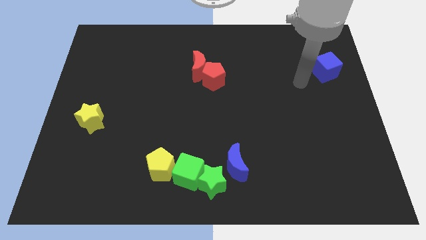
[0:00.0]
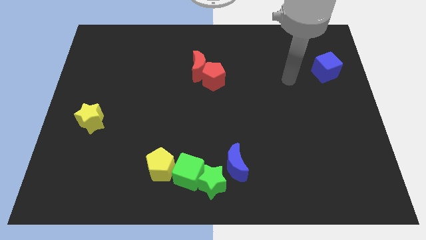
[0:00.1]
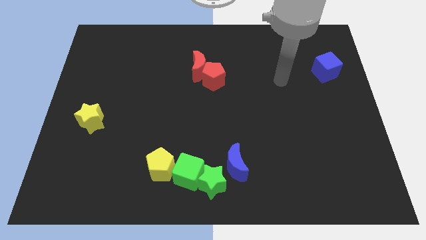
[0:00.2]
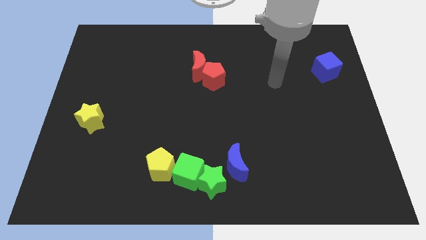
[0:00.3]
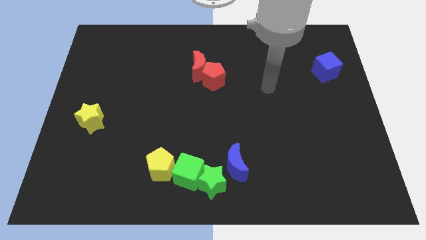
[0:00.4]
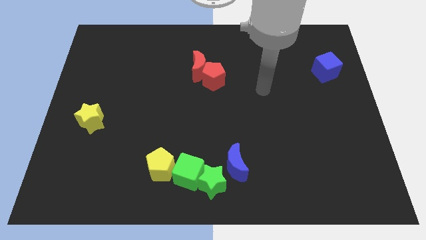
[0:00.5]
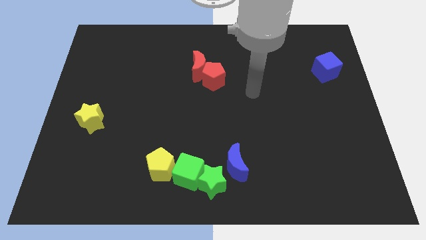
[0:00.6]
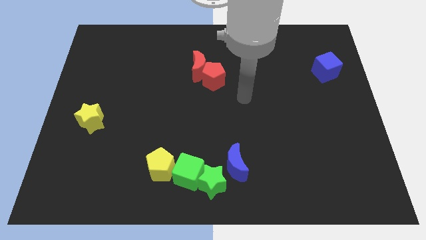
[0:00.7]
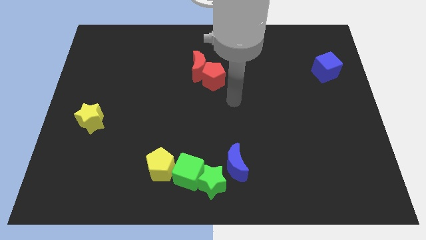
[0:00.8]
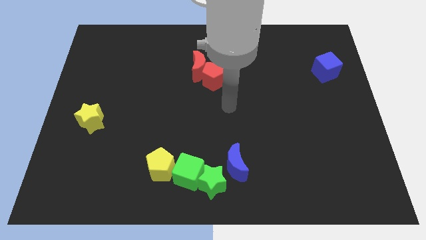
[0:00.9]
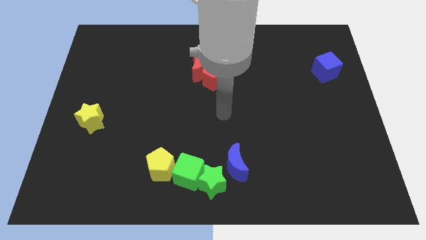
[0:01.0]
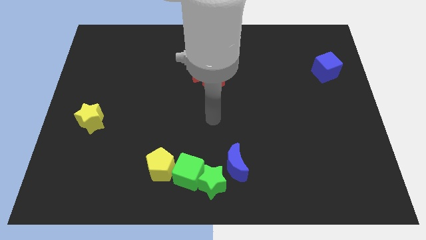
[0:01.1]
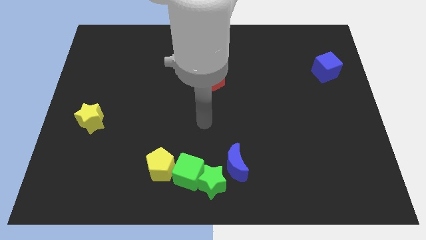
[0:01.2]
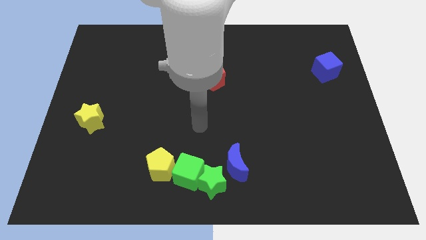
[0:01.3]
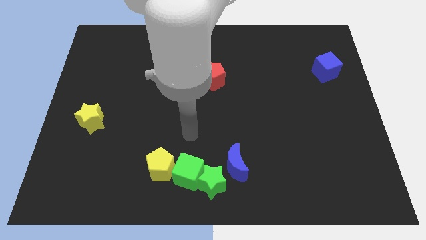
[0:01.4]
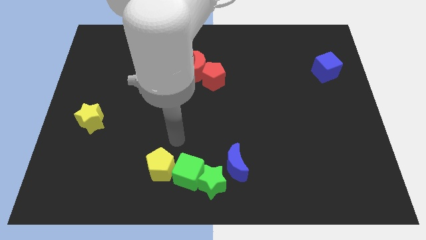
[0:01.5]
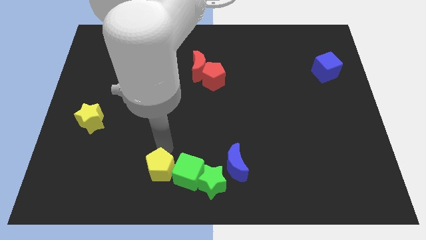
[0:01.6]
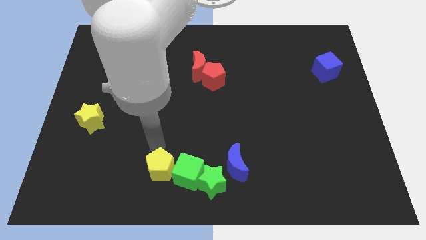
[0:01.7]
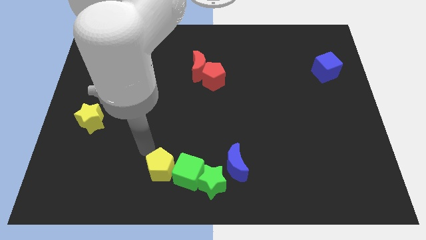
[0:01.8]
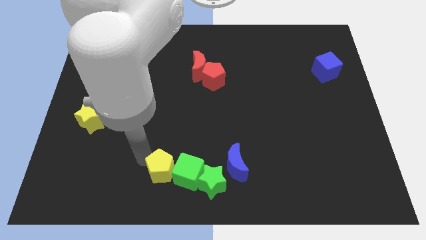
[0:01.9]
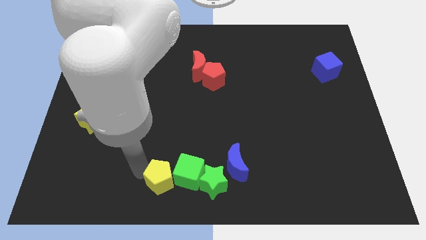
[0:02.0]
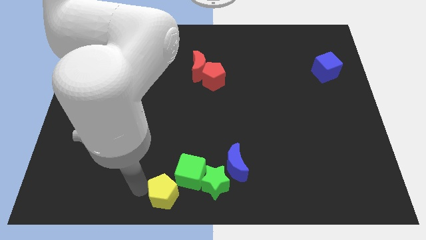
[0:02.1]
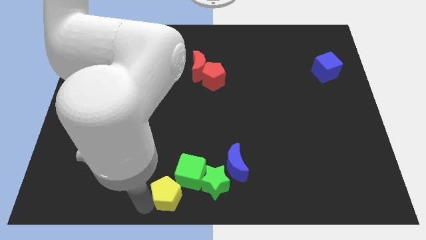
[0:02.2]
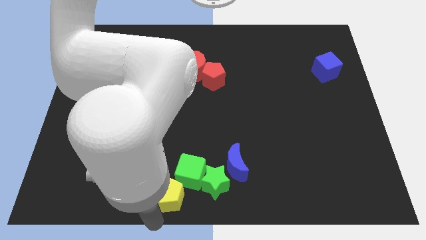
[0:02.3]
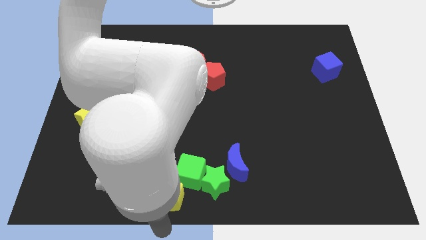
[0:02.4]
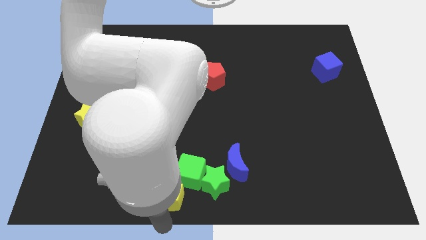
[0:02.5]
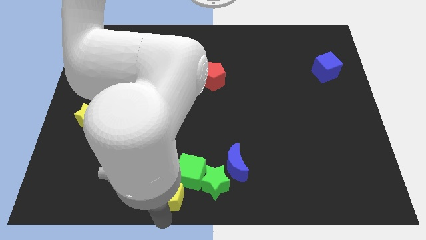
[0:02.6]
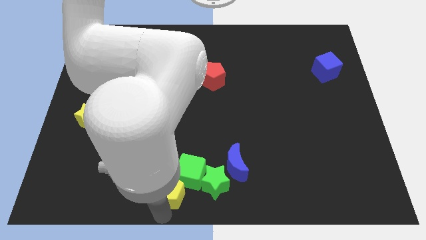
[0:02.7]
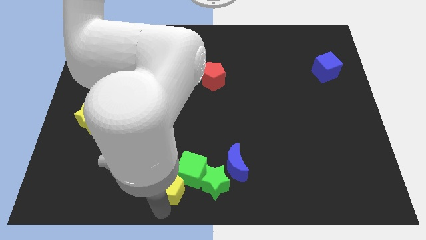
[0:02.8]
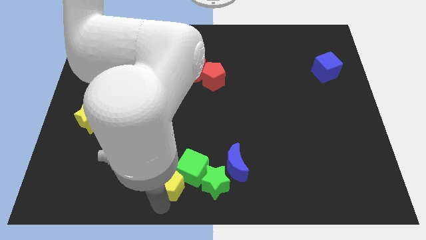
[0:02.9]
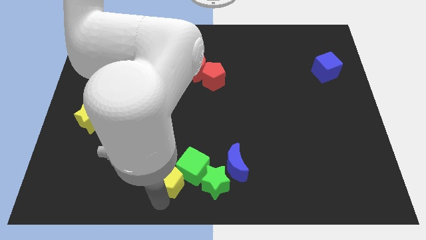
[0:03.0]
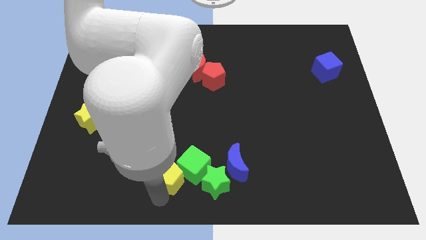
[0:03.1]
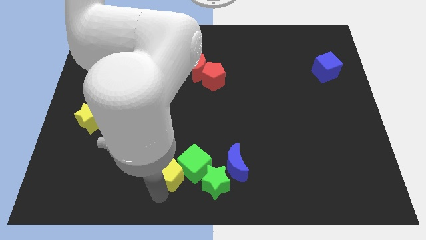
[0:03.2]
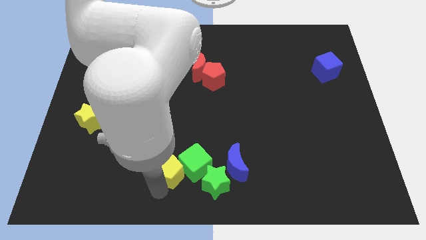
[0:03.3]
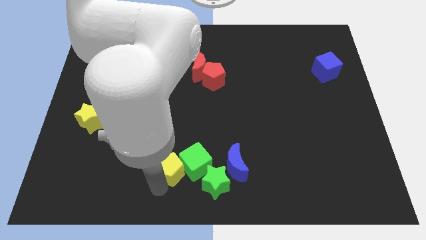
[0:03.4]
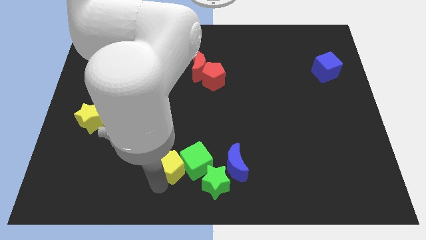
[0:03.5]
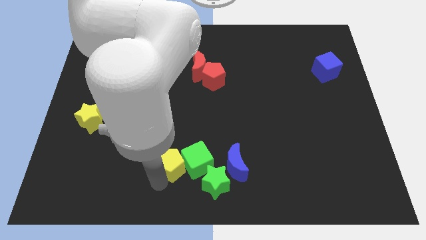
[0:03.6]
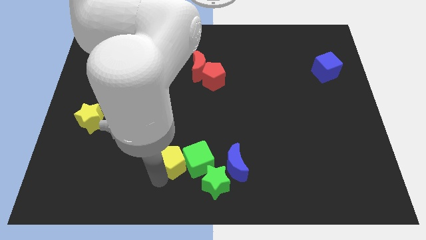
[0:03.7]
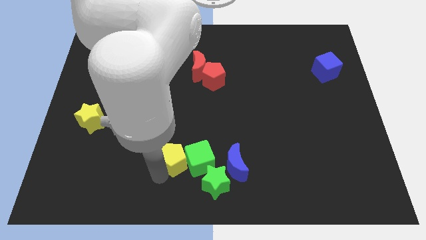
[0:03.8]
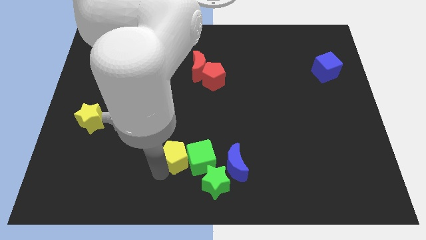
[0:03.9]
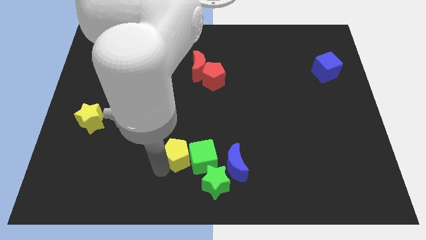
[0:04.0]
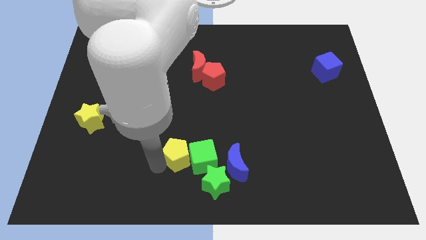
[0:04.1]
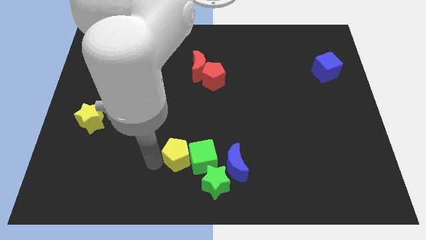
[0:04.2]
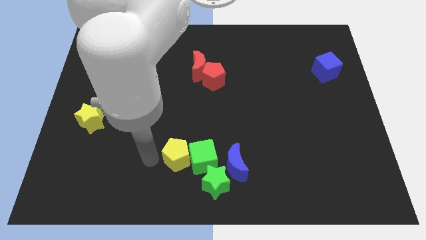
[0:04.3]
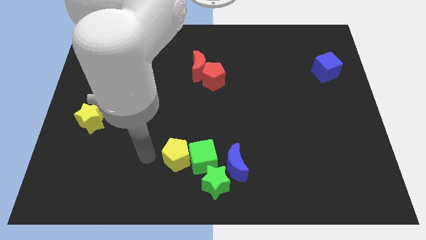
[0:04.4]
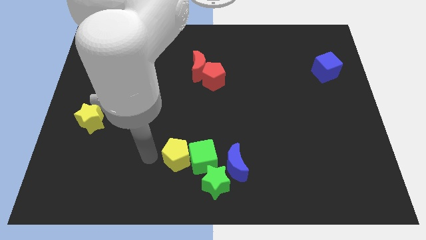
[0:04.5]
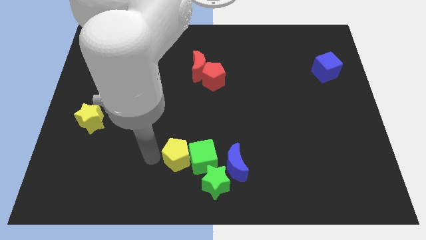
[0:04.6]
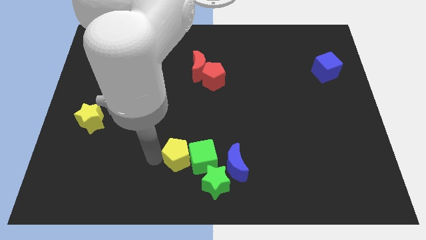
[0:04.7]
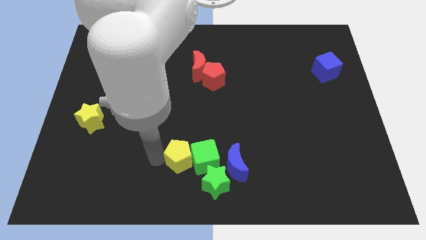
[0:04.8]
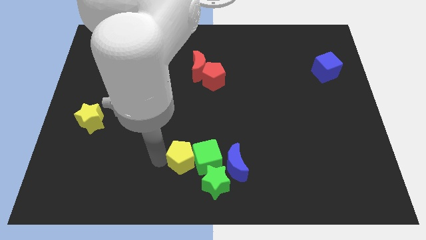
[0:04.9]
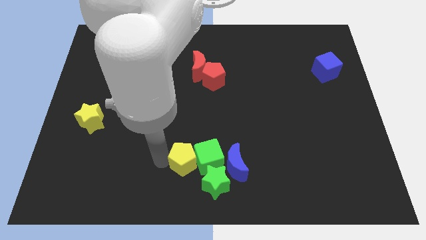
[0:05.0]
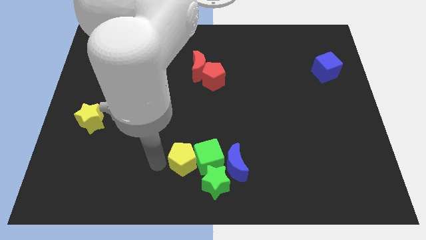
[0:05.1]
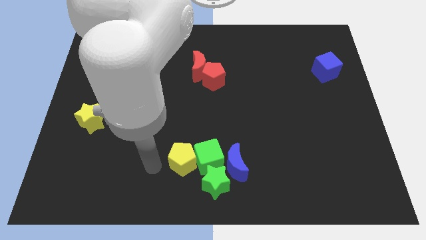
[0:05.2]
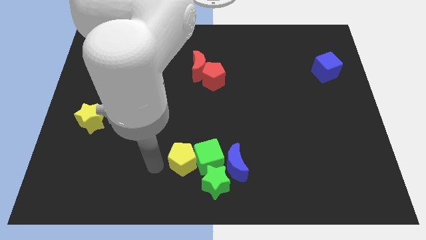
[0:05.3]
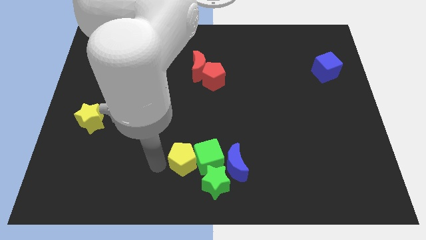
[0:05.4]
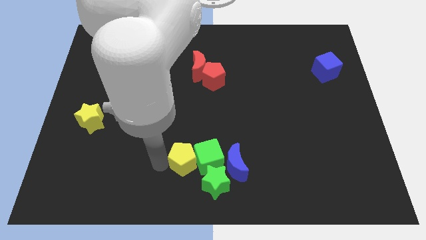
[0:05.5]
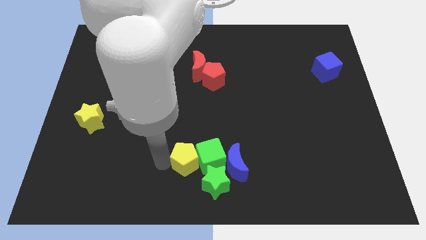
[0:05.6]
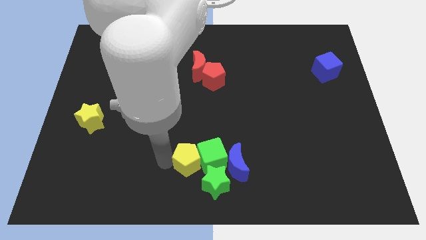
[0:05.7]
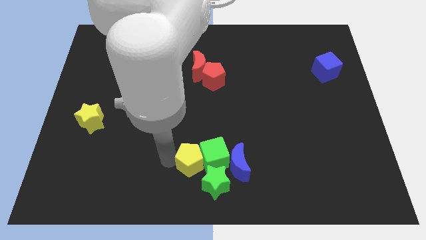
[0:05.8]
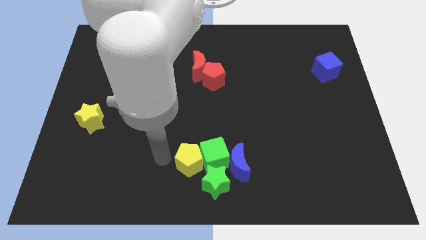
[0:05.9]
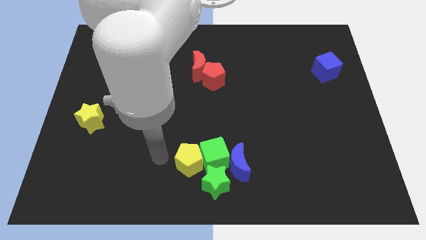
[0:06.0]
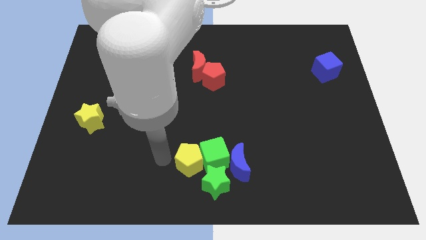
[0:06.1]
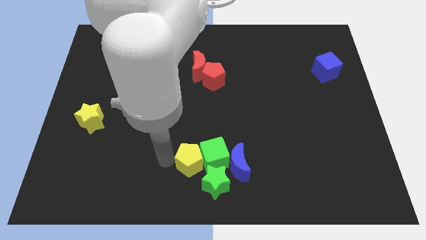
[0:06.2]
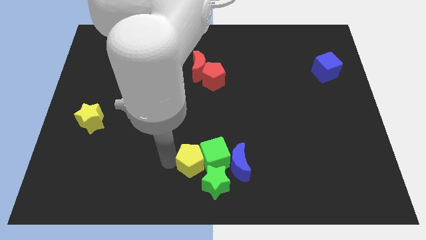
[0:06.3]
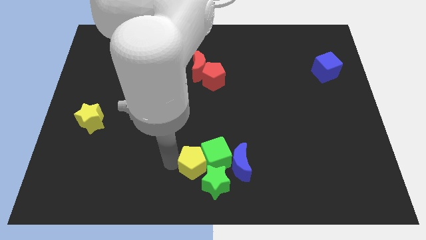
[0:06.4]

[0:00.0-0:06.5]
put the yellow pentagon towards the green star

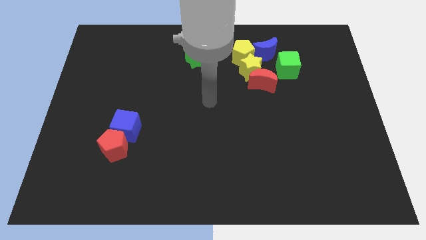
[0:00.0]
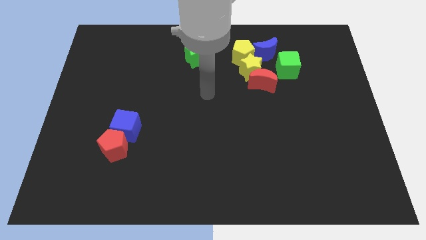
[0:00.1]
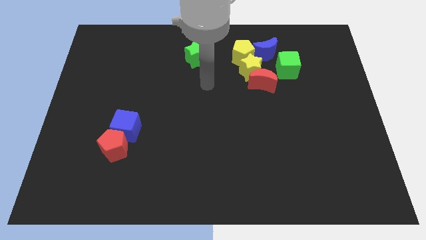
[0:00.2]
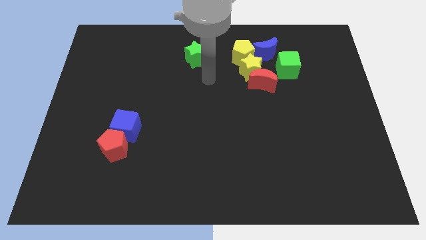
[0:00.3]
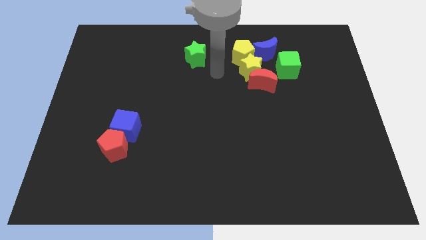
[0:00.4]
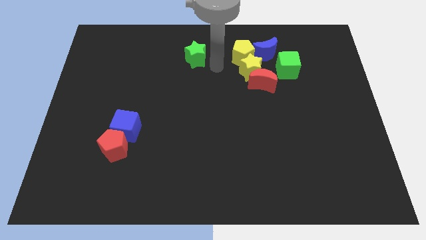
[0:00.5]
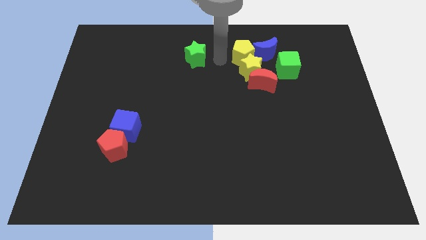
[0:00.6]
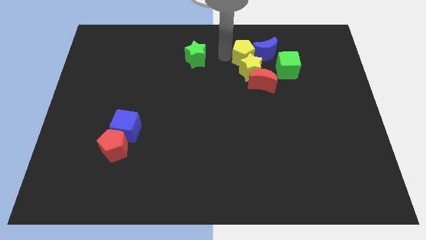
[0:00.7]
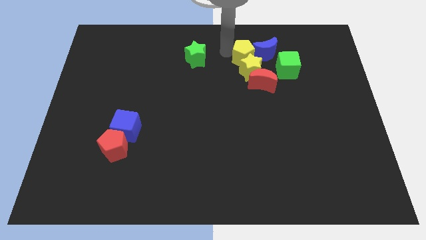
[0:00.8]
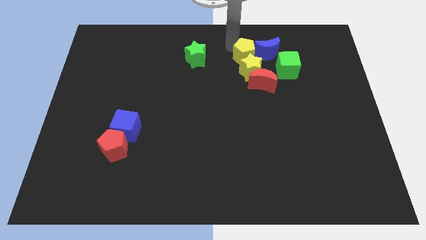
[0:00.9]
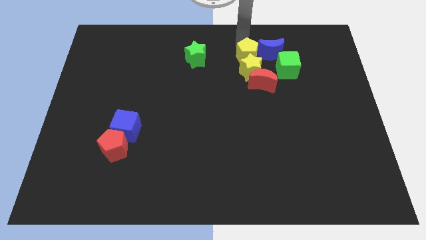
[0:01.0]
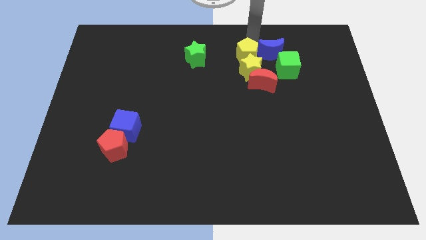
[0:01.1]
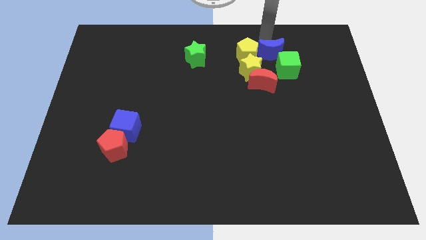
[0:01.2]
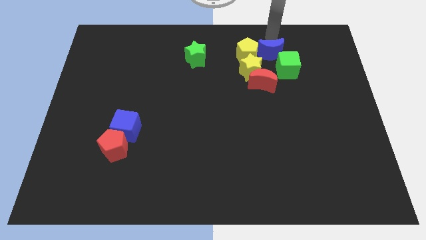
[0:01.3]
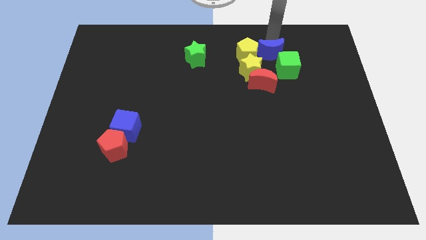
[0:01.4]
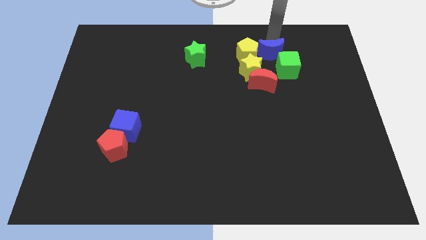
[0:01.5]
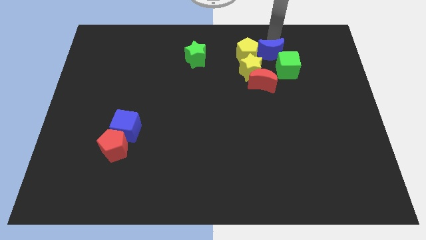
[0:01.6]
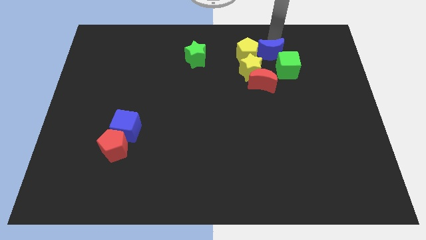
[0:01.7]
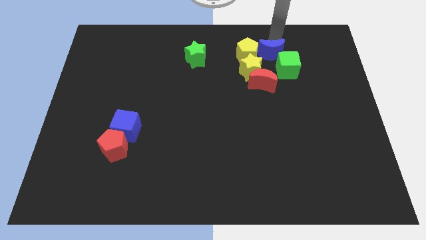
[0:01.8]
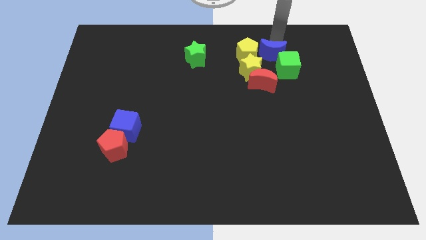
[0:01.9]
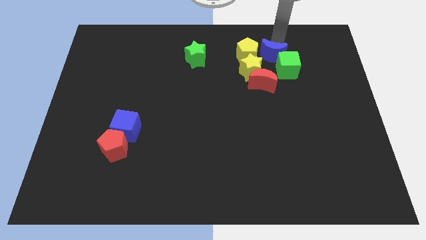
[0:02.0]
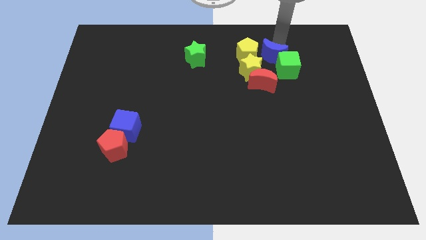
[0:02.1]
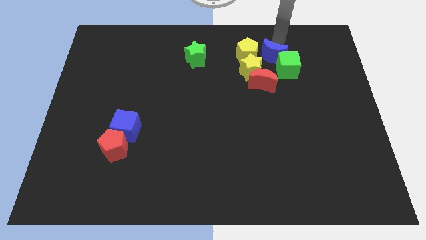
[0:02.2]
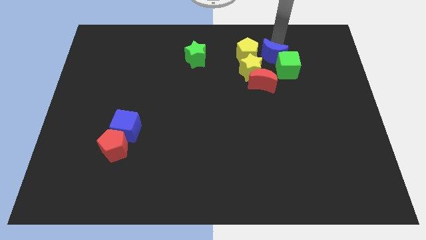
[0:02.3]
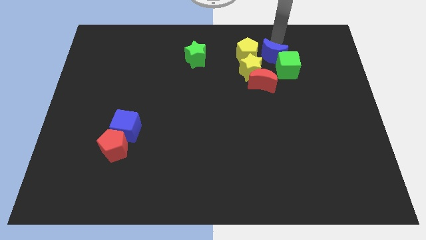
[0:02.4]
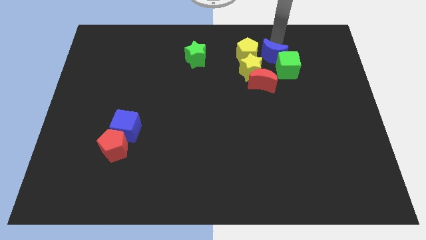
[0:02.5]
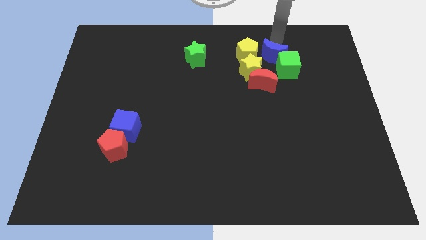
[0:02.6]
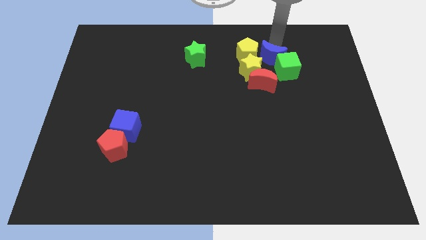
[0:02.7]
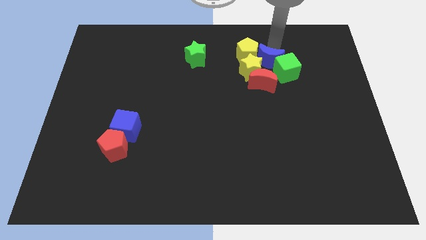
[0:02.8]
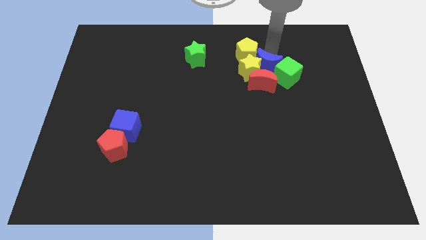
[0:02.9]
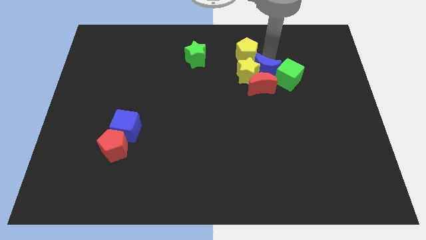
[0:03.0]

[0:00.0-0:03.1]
slide the blue moon close to the red moon
